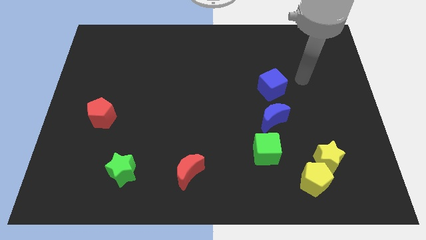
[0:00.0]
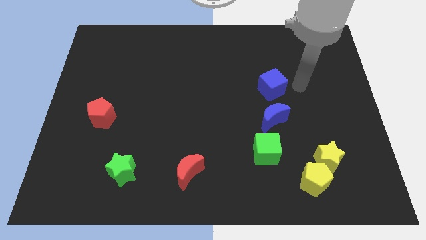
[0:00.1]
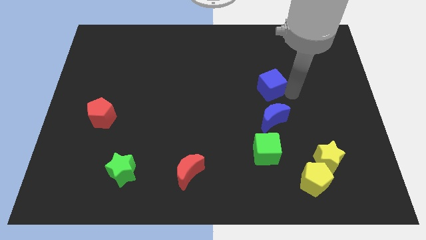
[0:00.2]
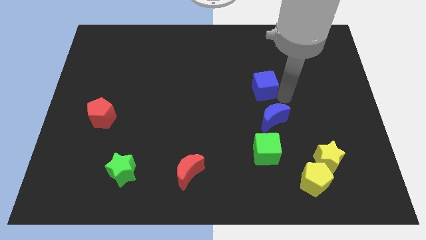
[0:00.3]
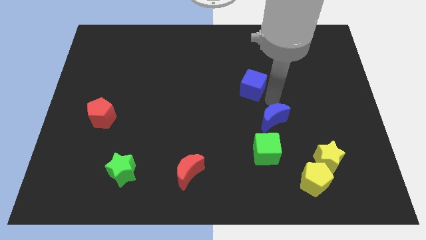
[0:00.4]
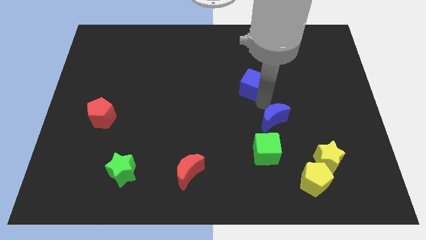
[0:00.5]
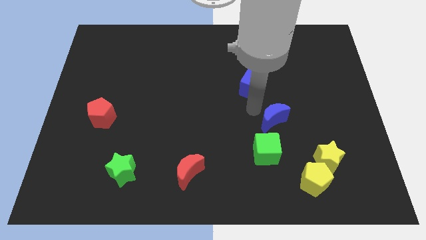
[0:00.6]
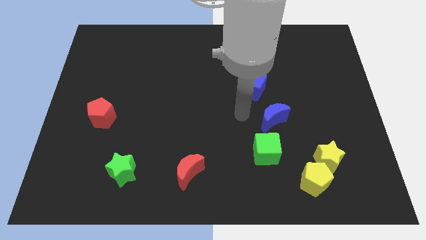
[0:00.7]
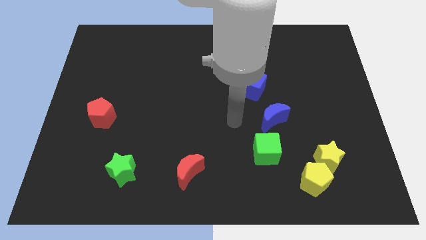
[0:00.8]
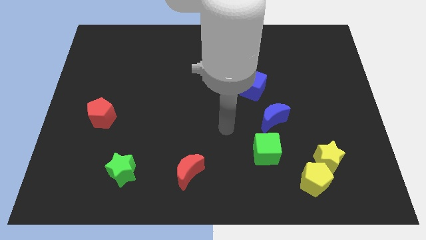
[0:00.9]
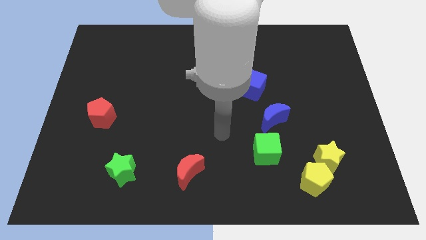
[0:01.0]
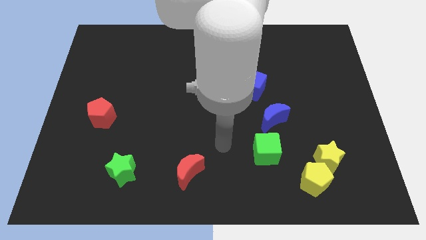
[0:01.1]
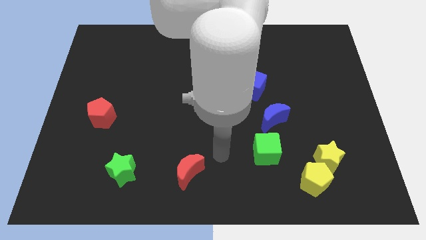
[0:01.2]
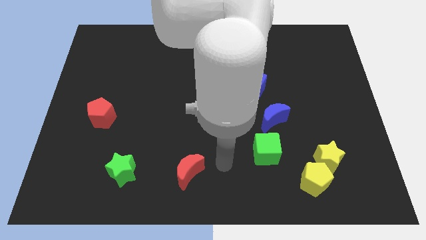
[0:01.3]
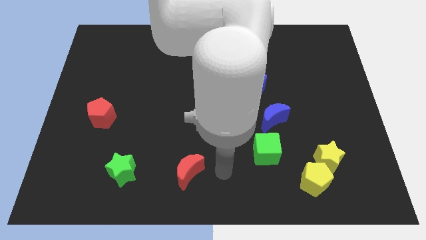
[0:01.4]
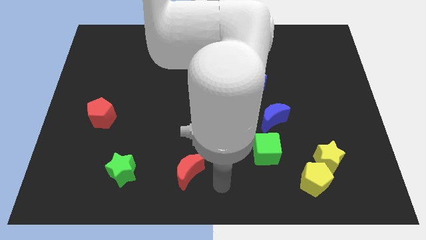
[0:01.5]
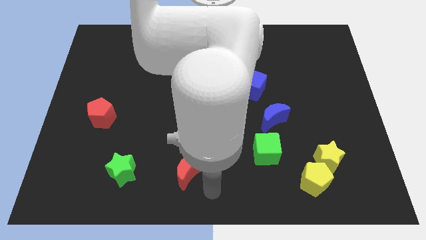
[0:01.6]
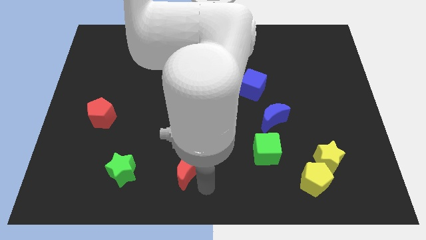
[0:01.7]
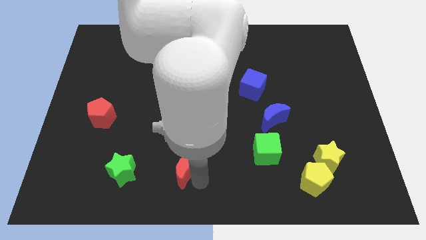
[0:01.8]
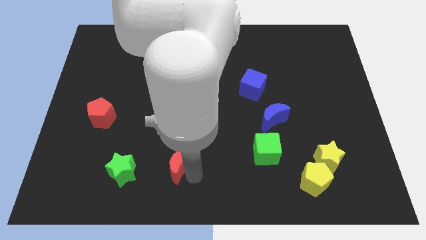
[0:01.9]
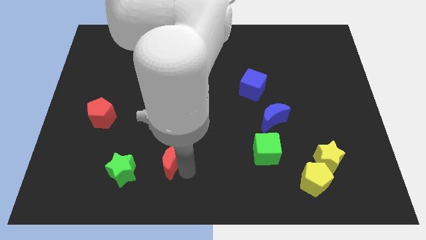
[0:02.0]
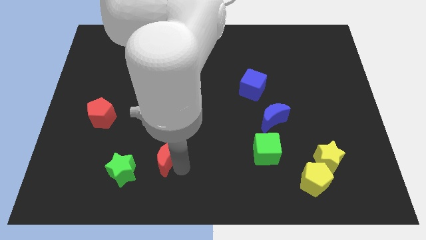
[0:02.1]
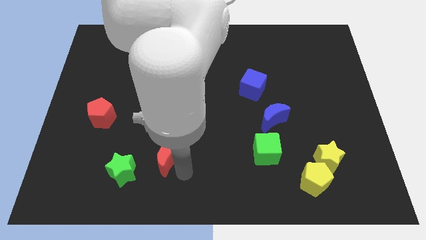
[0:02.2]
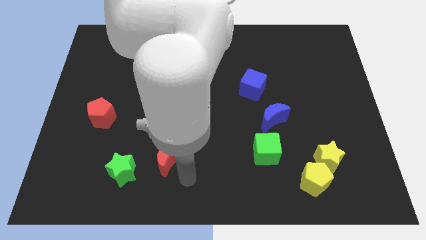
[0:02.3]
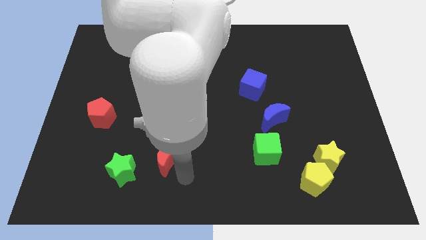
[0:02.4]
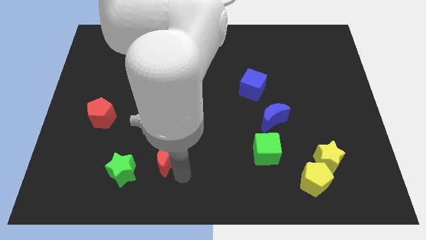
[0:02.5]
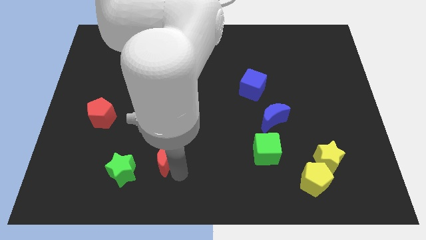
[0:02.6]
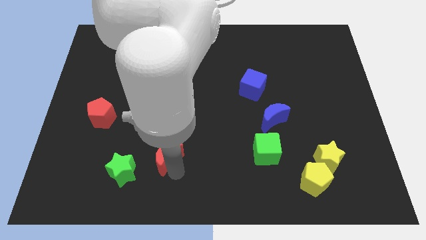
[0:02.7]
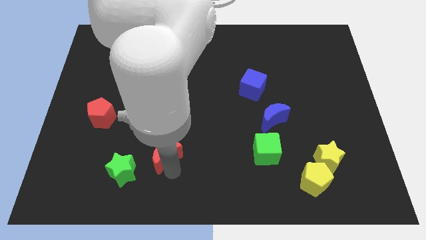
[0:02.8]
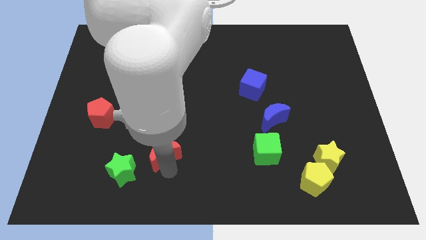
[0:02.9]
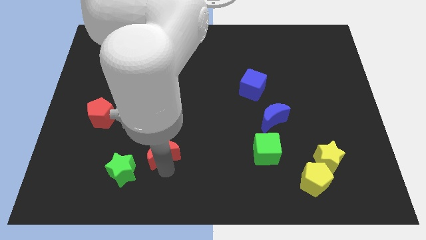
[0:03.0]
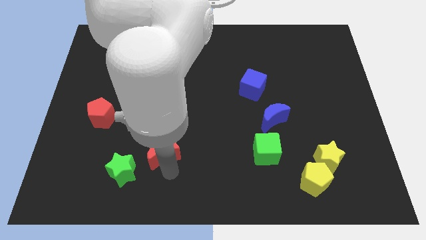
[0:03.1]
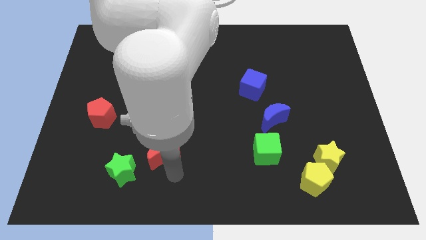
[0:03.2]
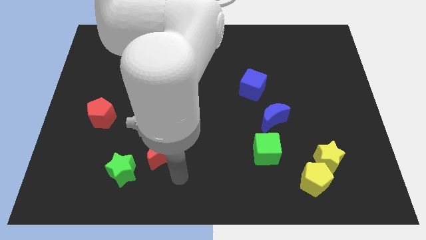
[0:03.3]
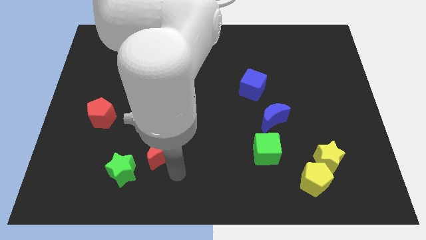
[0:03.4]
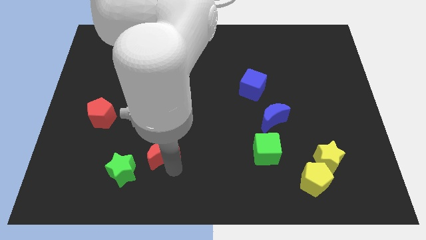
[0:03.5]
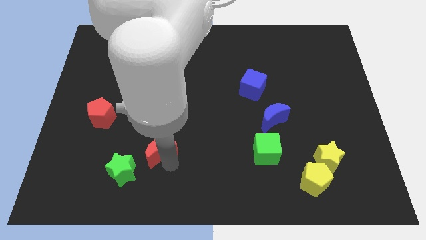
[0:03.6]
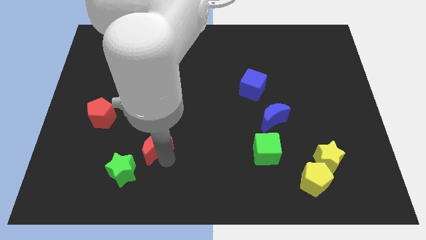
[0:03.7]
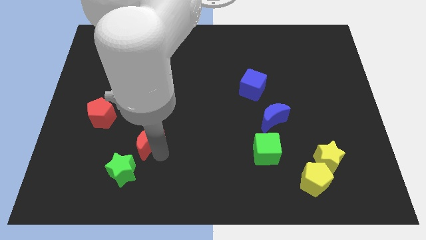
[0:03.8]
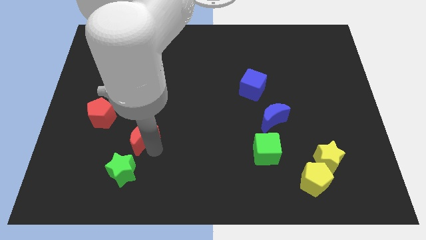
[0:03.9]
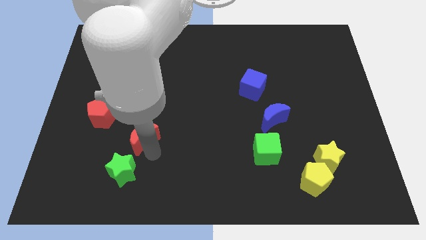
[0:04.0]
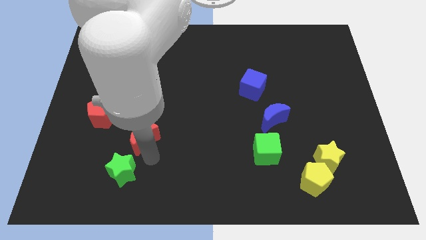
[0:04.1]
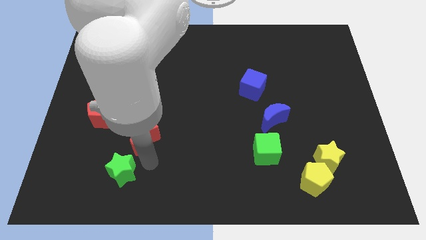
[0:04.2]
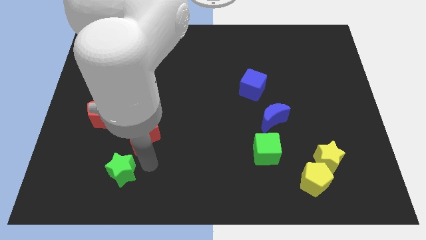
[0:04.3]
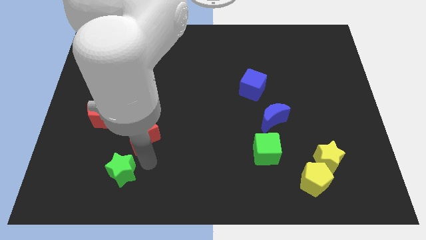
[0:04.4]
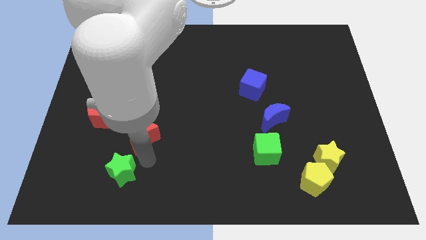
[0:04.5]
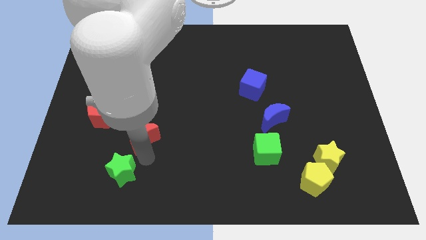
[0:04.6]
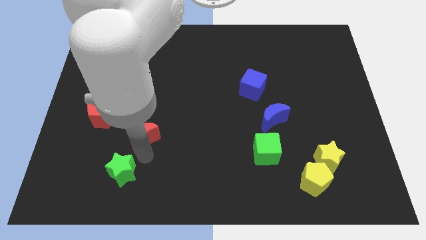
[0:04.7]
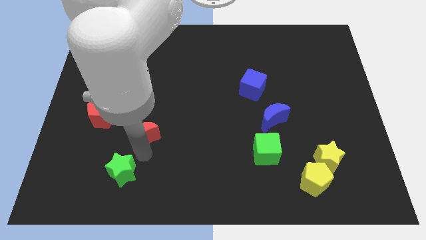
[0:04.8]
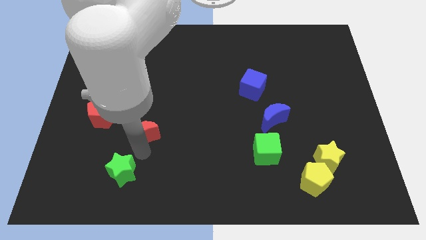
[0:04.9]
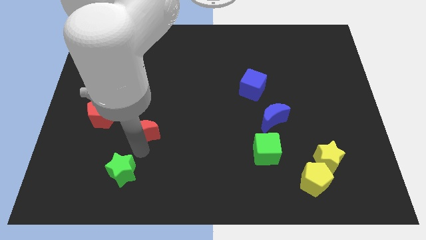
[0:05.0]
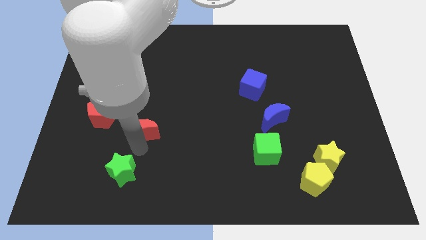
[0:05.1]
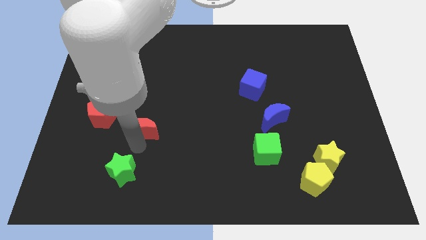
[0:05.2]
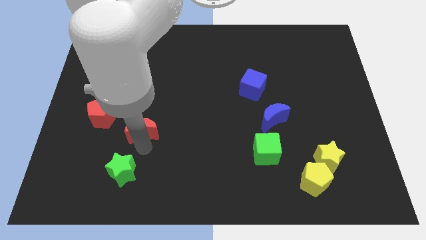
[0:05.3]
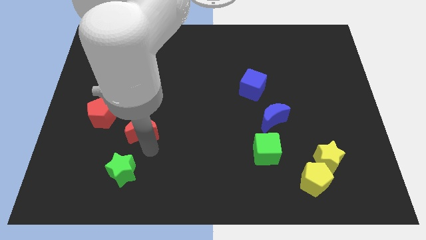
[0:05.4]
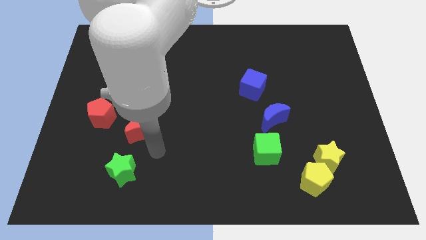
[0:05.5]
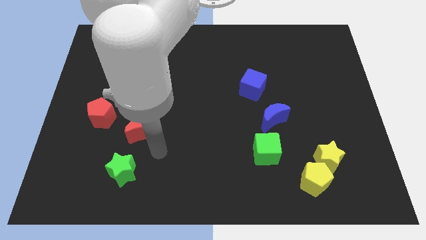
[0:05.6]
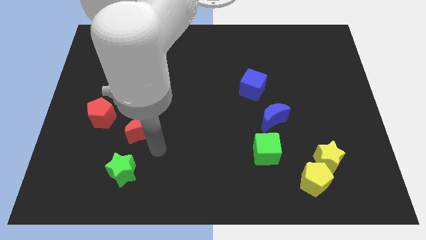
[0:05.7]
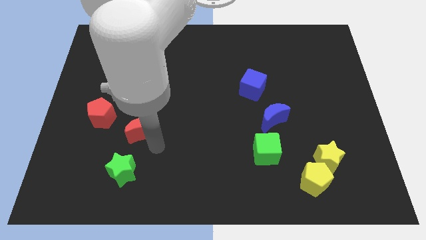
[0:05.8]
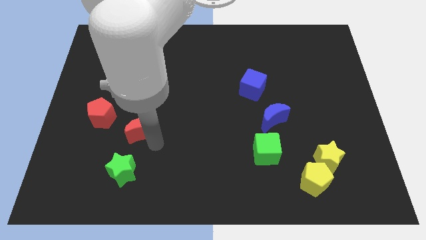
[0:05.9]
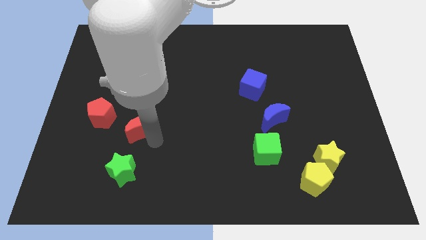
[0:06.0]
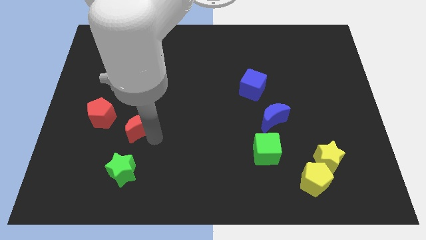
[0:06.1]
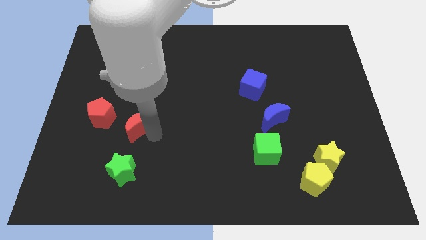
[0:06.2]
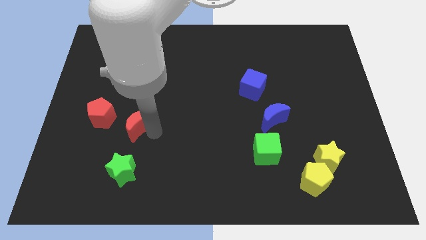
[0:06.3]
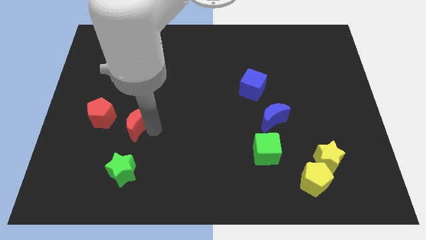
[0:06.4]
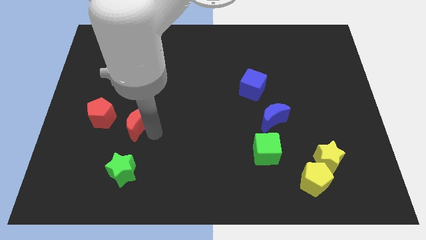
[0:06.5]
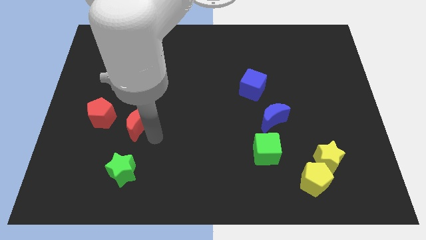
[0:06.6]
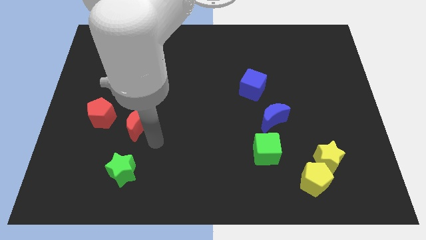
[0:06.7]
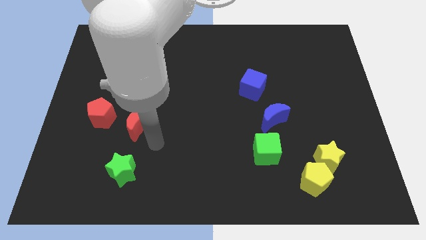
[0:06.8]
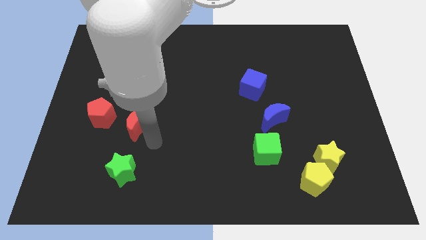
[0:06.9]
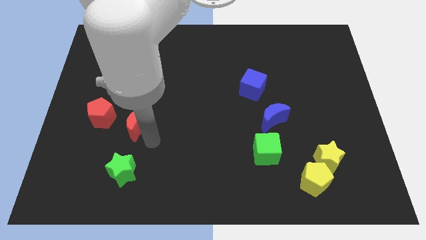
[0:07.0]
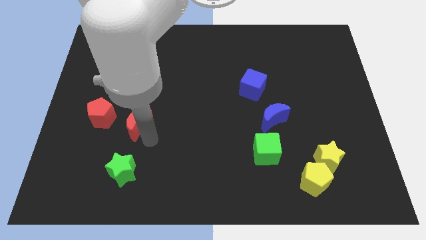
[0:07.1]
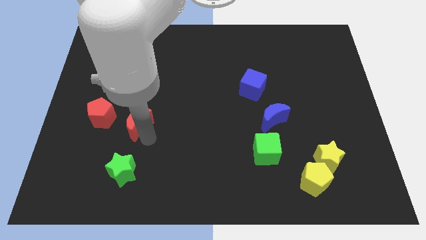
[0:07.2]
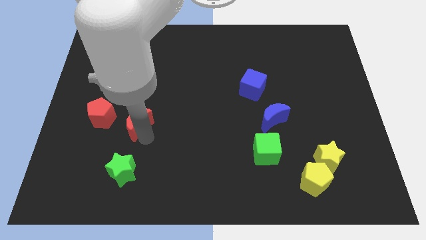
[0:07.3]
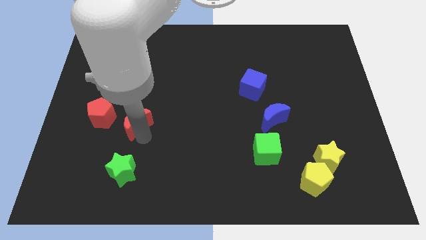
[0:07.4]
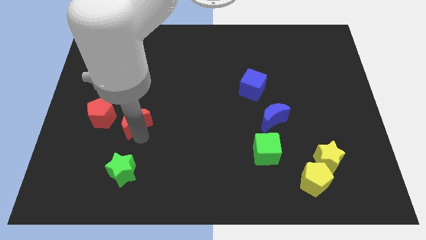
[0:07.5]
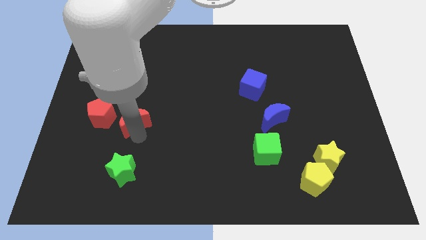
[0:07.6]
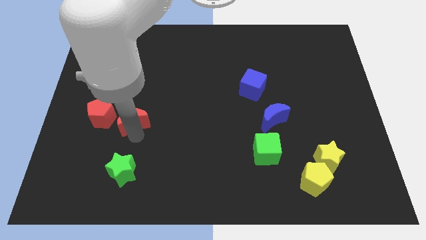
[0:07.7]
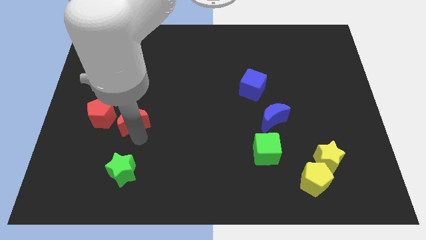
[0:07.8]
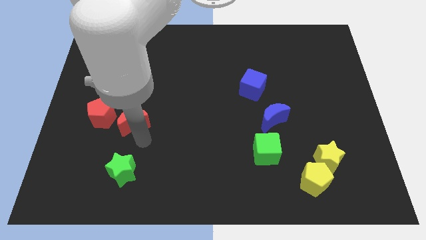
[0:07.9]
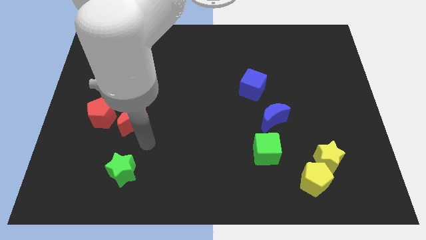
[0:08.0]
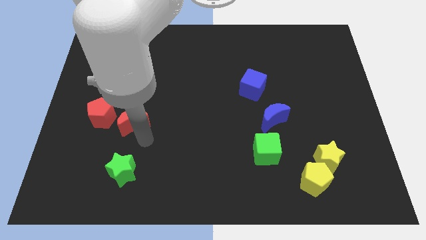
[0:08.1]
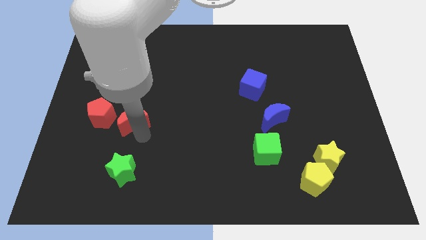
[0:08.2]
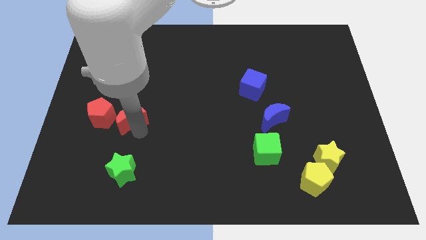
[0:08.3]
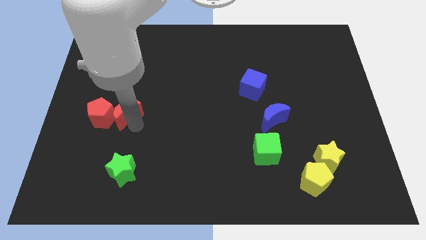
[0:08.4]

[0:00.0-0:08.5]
push the red moon upwards and to the left
